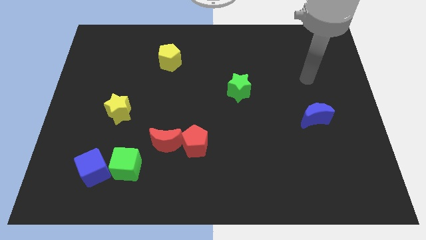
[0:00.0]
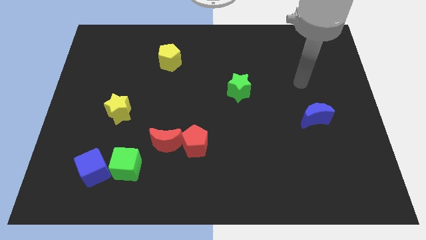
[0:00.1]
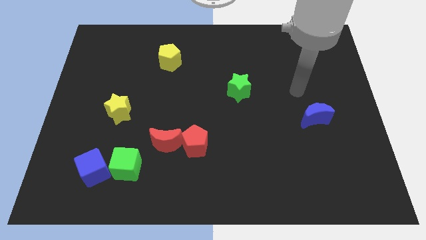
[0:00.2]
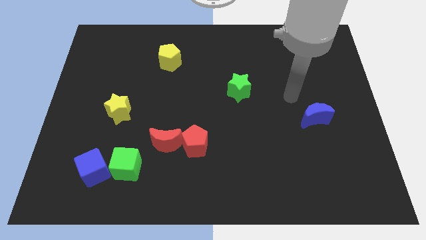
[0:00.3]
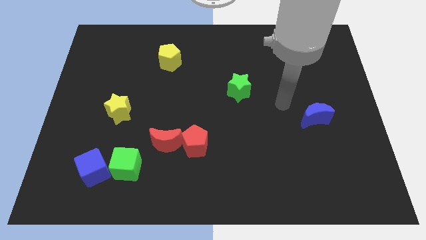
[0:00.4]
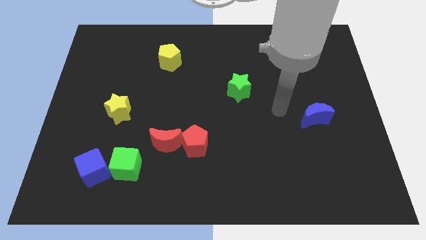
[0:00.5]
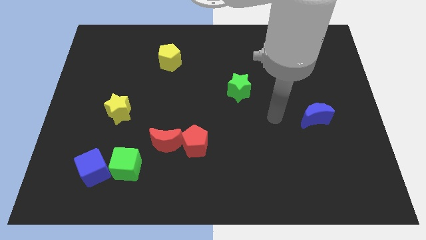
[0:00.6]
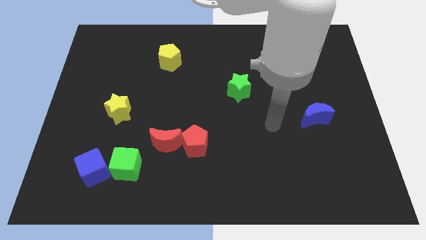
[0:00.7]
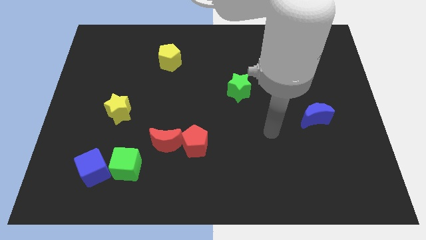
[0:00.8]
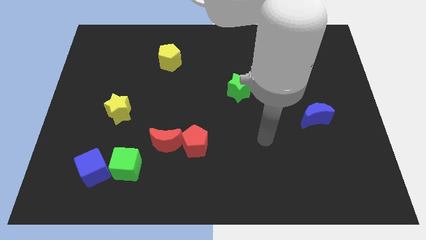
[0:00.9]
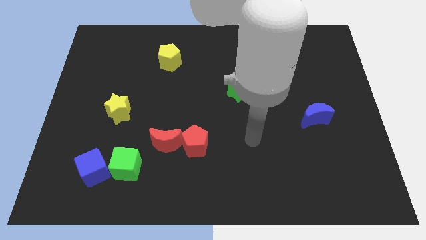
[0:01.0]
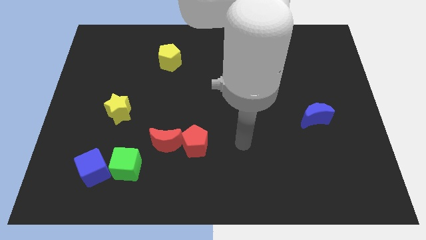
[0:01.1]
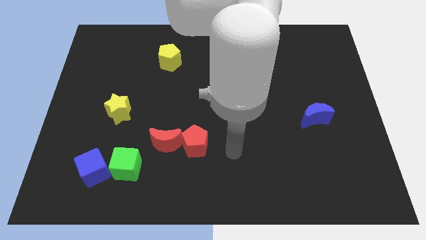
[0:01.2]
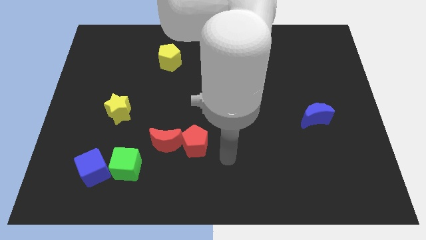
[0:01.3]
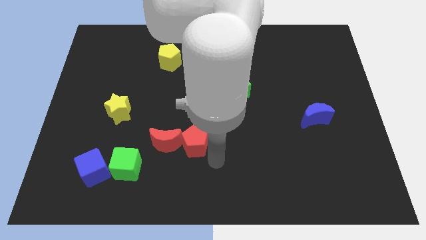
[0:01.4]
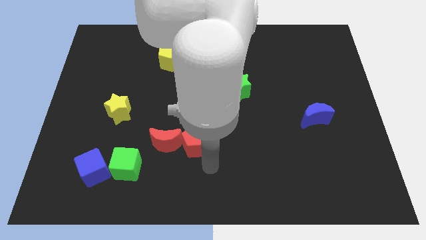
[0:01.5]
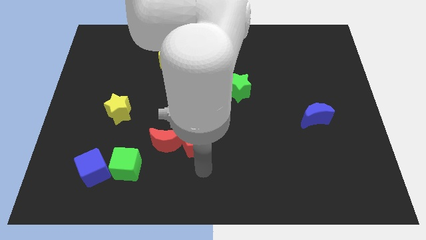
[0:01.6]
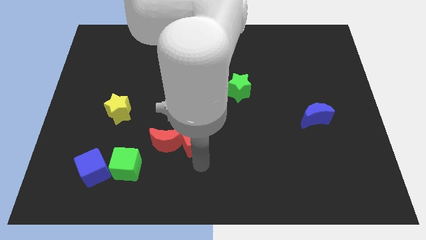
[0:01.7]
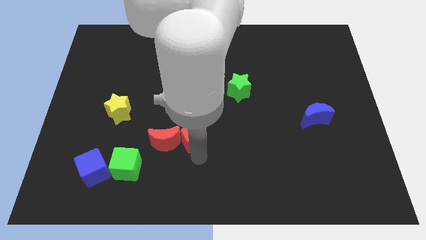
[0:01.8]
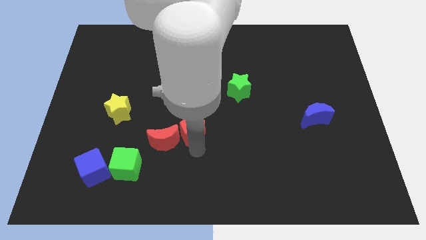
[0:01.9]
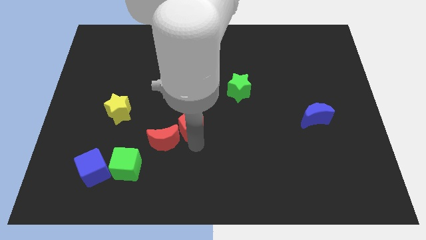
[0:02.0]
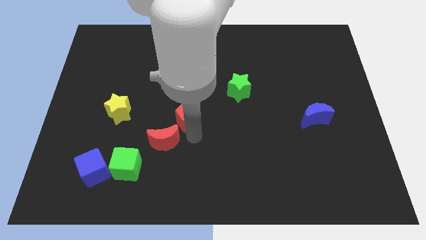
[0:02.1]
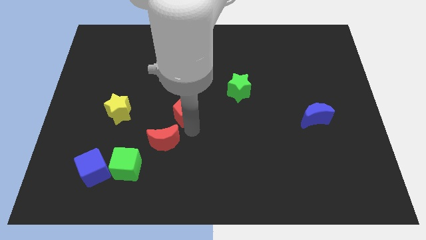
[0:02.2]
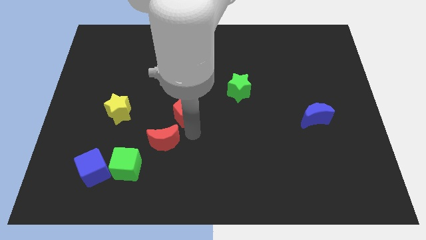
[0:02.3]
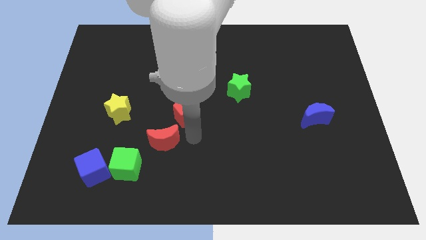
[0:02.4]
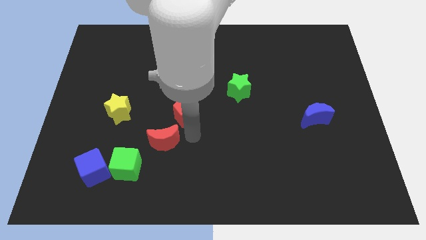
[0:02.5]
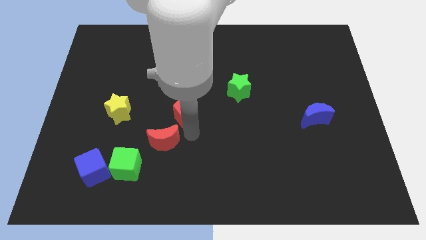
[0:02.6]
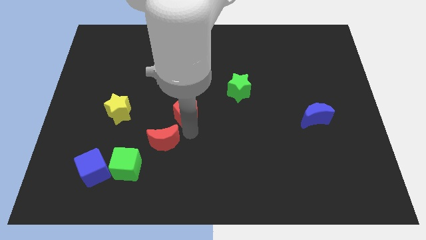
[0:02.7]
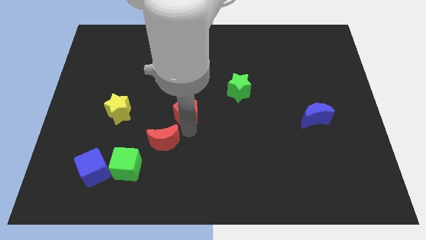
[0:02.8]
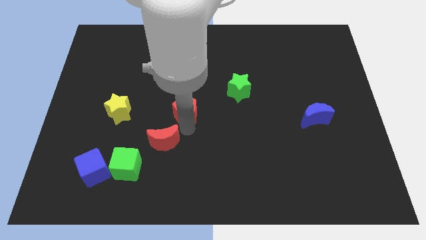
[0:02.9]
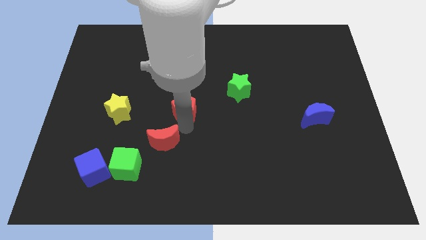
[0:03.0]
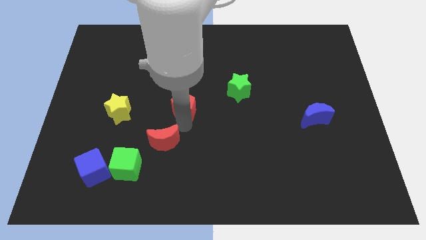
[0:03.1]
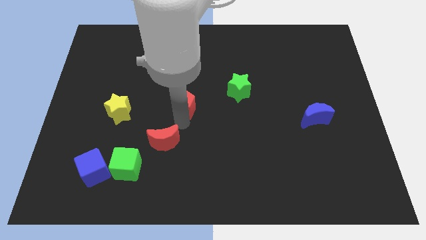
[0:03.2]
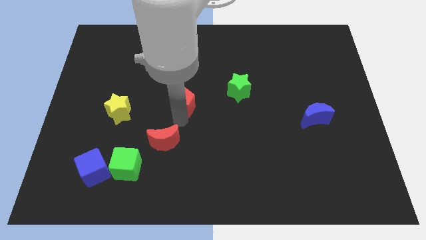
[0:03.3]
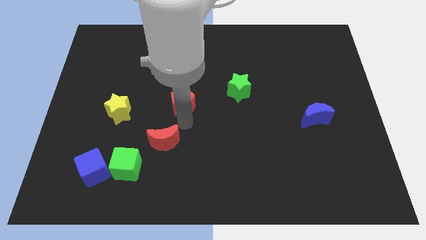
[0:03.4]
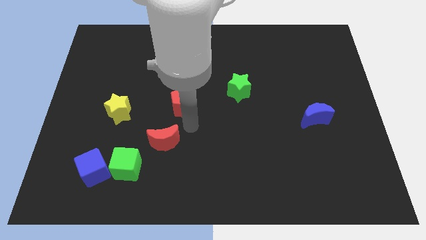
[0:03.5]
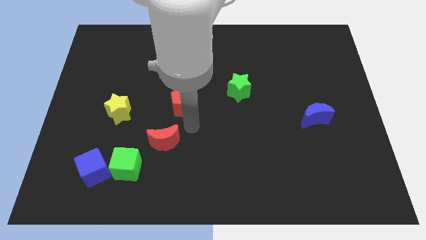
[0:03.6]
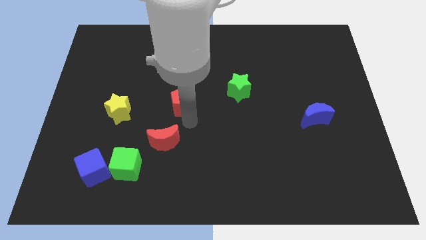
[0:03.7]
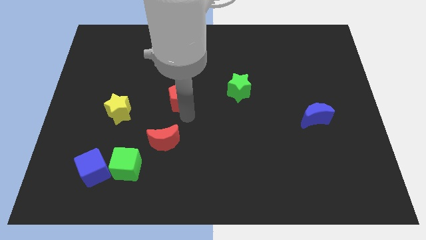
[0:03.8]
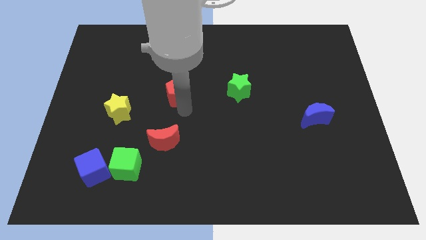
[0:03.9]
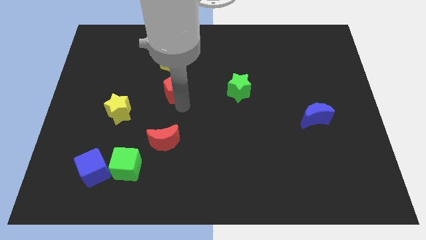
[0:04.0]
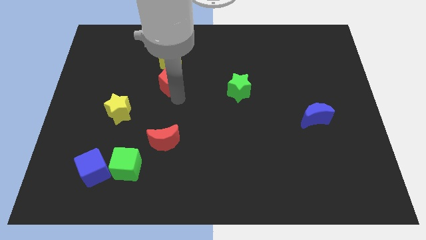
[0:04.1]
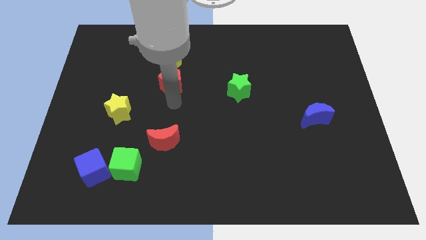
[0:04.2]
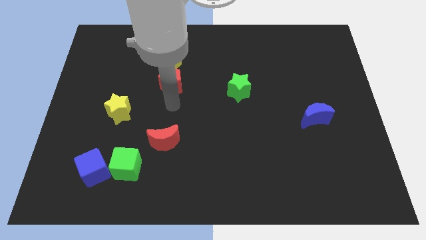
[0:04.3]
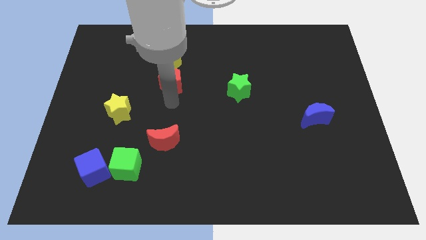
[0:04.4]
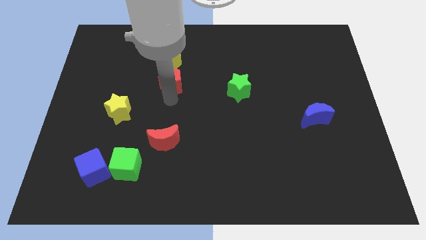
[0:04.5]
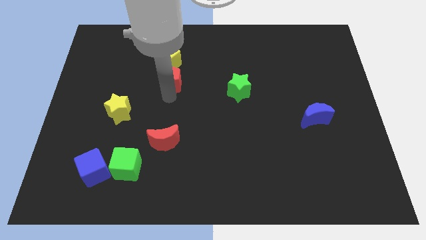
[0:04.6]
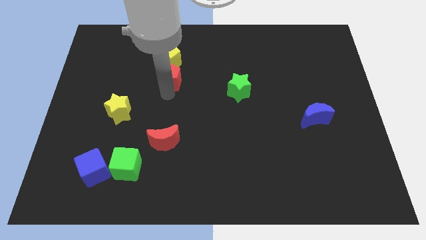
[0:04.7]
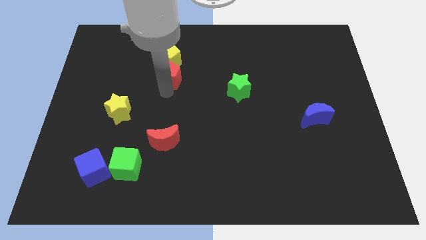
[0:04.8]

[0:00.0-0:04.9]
move the red pentagon towards the yellow pentagon

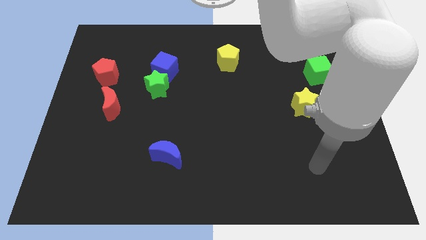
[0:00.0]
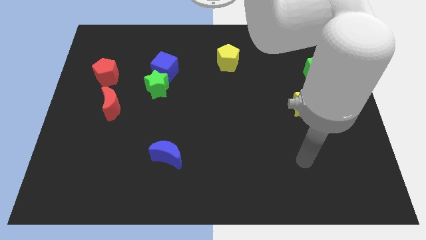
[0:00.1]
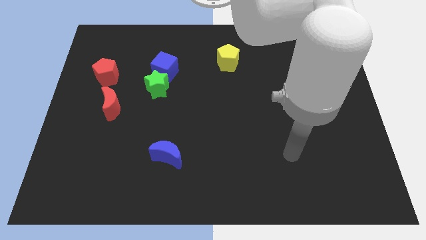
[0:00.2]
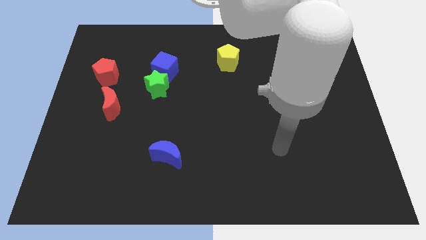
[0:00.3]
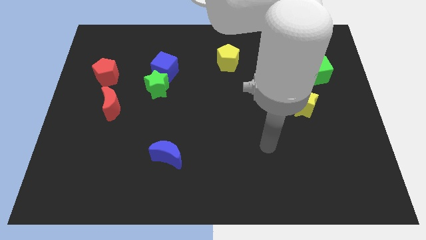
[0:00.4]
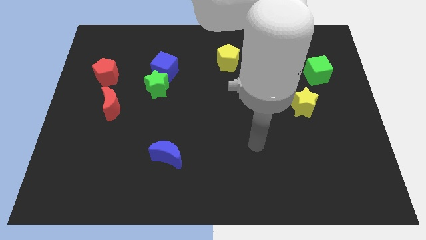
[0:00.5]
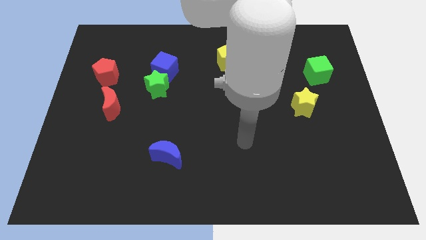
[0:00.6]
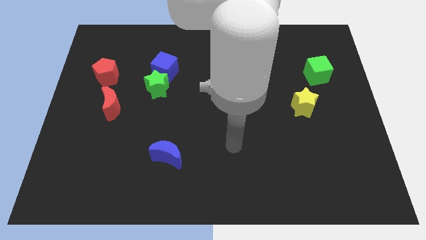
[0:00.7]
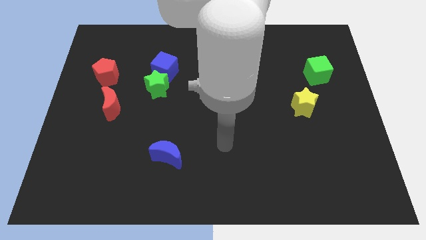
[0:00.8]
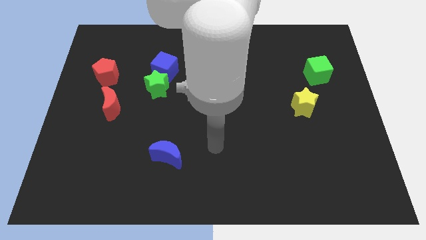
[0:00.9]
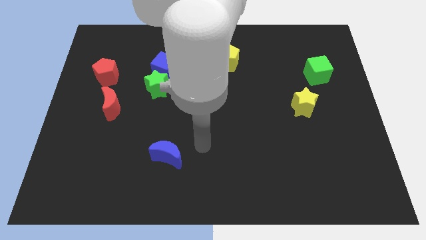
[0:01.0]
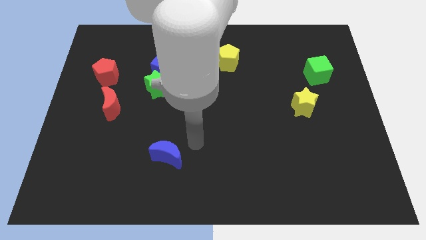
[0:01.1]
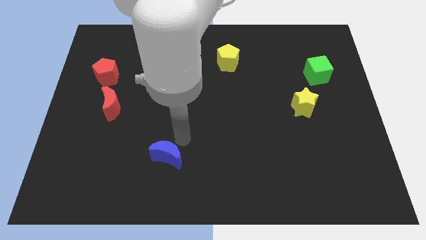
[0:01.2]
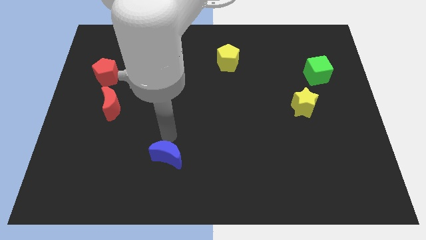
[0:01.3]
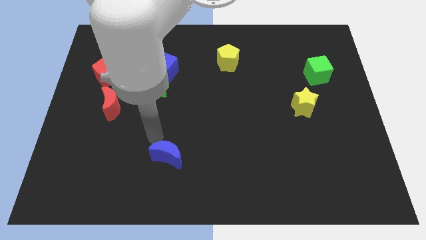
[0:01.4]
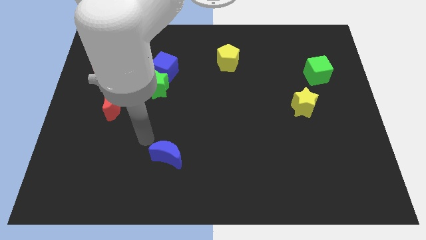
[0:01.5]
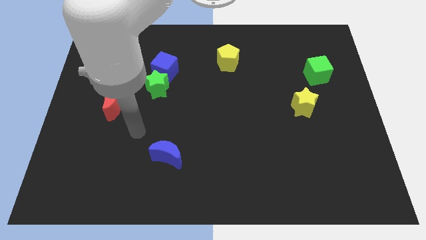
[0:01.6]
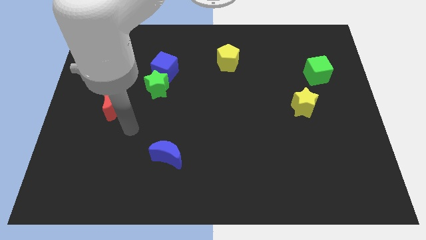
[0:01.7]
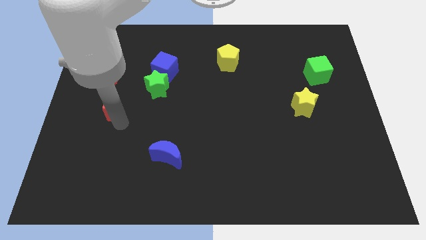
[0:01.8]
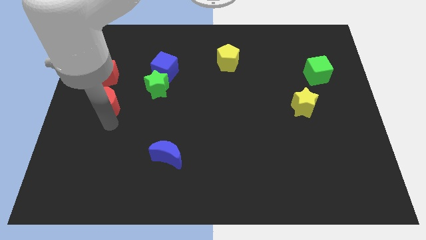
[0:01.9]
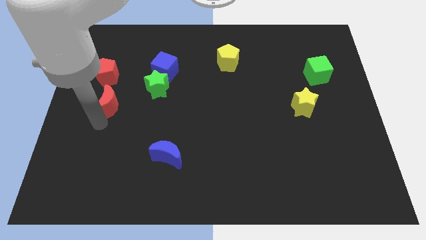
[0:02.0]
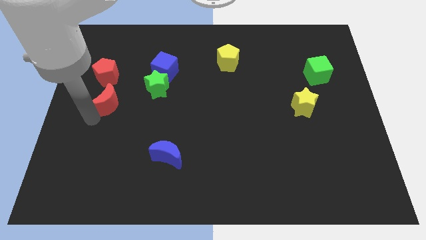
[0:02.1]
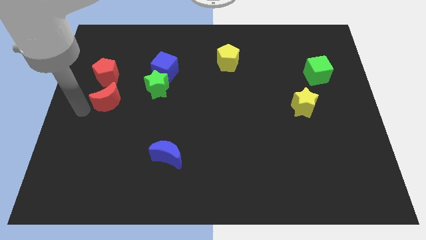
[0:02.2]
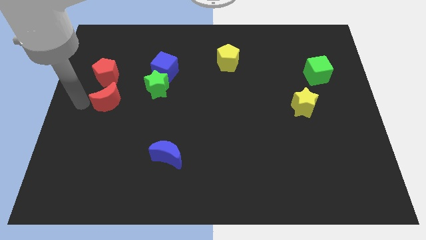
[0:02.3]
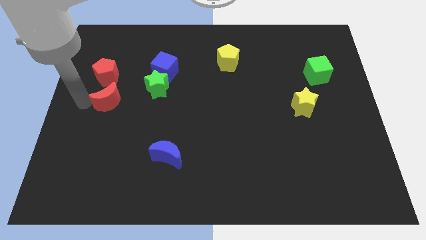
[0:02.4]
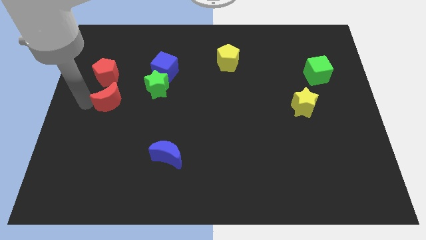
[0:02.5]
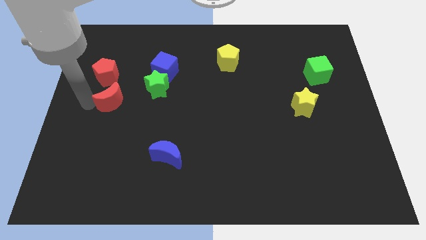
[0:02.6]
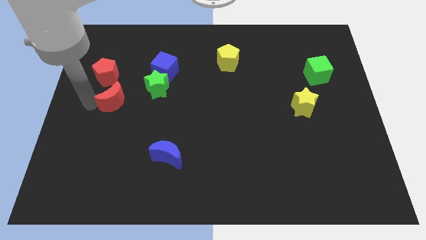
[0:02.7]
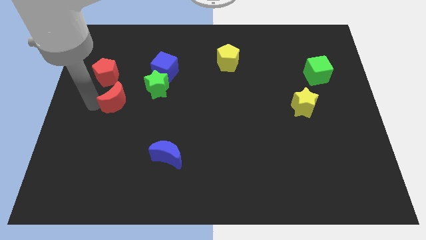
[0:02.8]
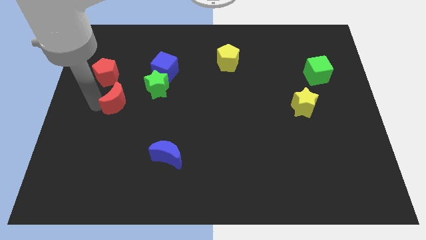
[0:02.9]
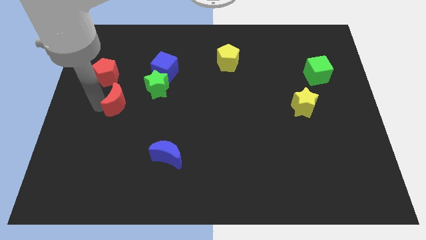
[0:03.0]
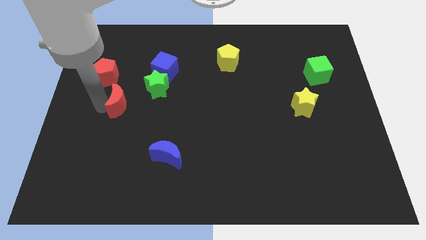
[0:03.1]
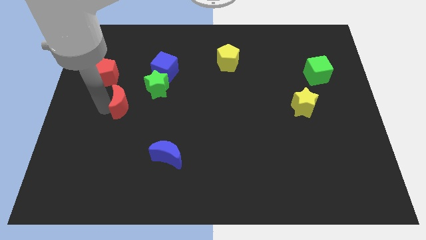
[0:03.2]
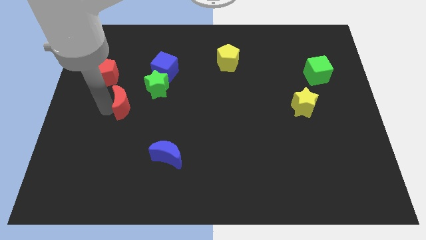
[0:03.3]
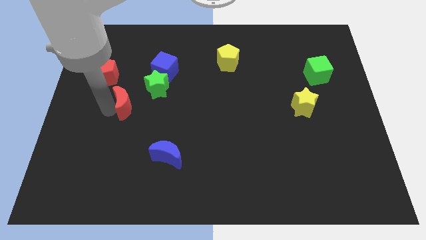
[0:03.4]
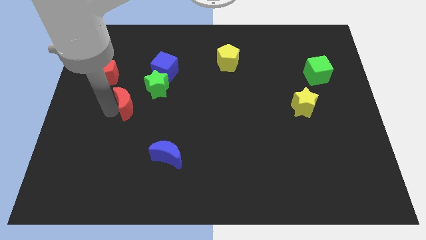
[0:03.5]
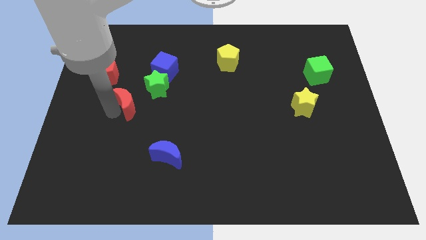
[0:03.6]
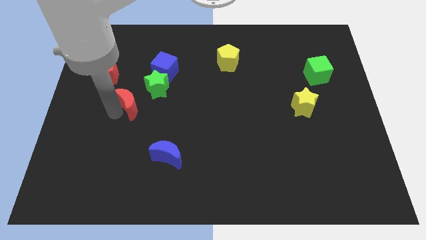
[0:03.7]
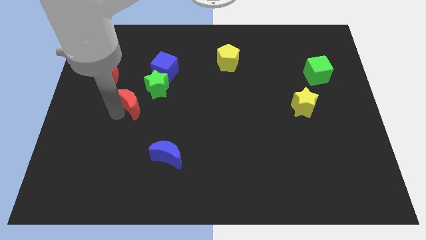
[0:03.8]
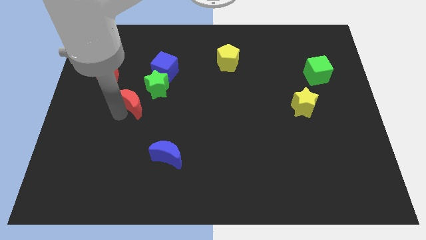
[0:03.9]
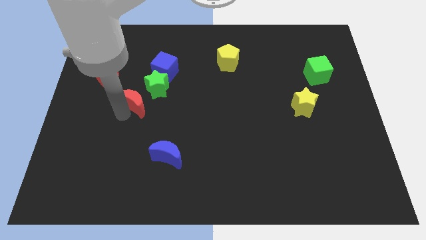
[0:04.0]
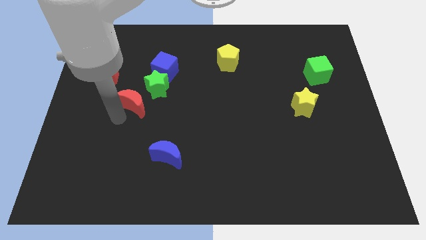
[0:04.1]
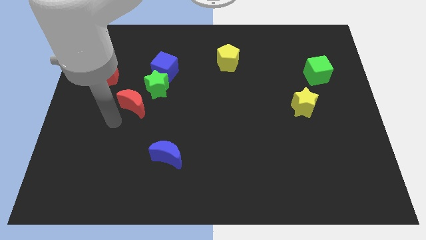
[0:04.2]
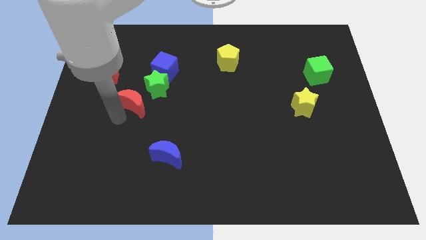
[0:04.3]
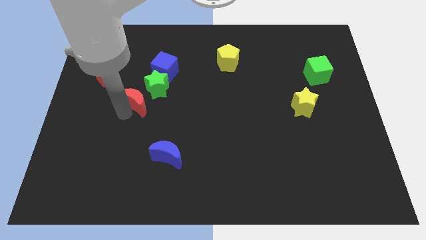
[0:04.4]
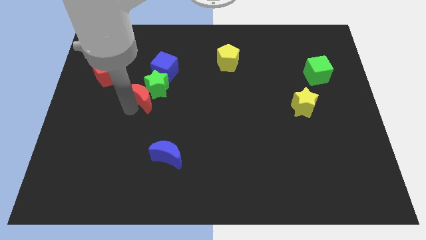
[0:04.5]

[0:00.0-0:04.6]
put the red moon to the green star
